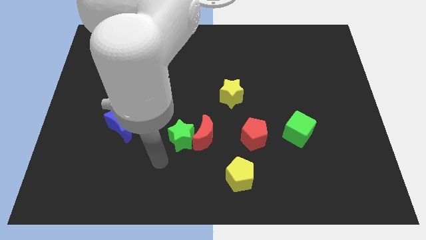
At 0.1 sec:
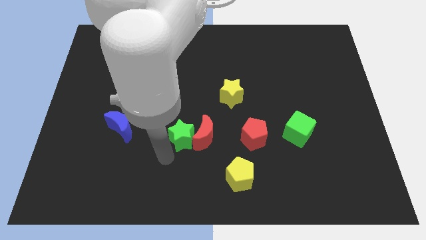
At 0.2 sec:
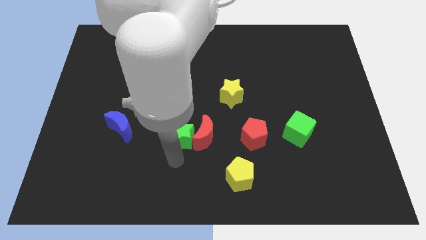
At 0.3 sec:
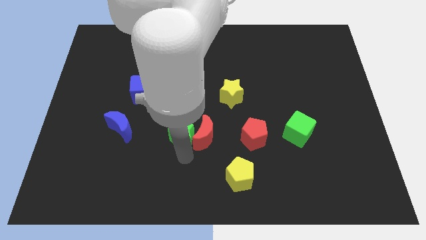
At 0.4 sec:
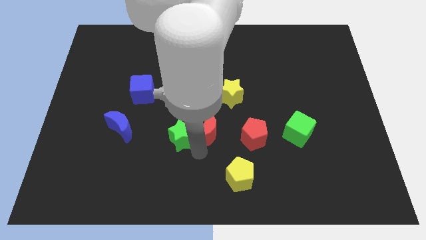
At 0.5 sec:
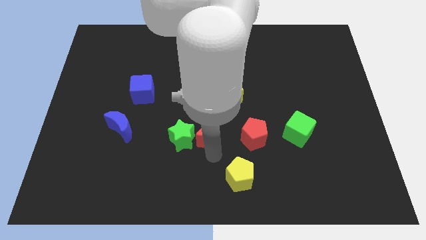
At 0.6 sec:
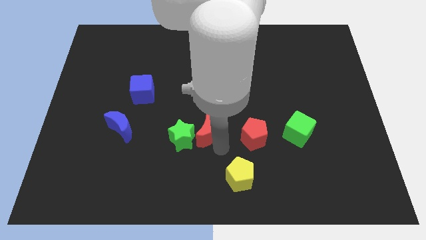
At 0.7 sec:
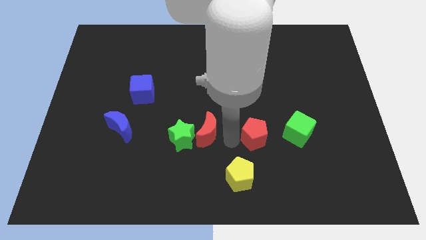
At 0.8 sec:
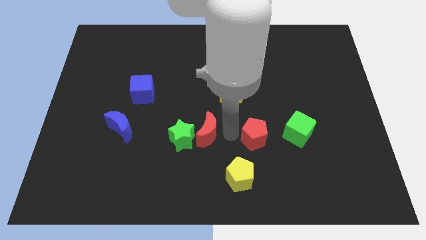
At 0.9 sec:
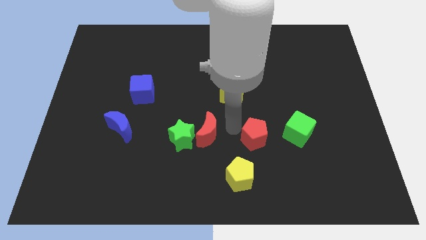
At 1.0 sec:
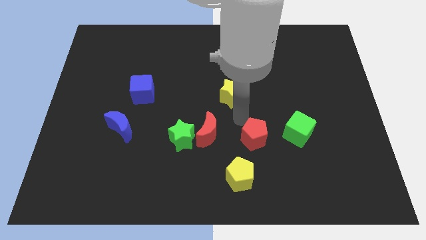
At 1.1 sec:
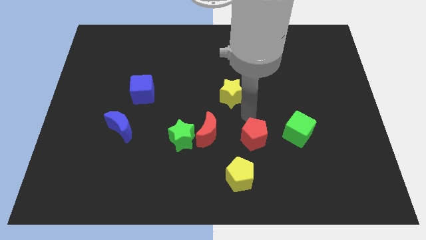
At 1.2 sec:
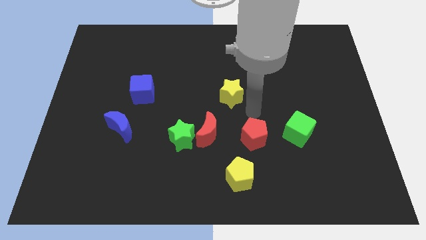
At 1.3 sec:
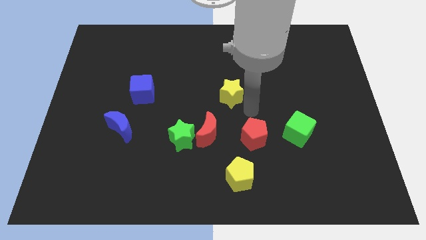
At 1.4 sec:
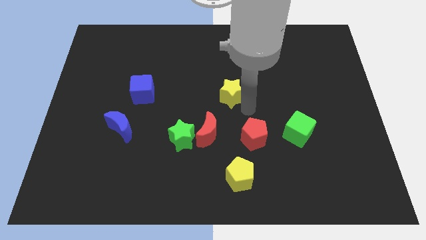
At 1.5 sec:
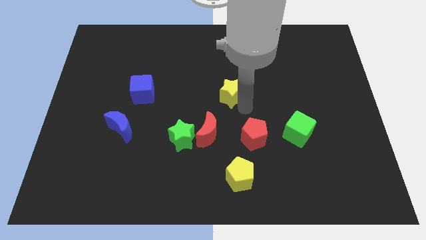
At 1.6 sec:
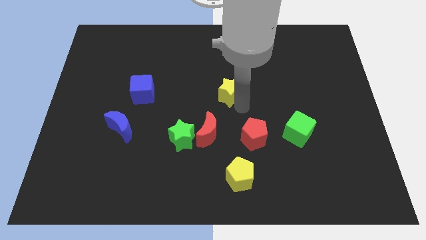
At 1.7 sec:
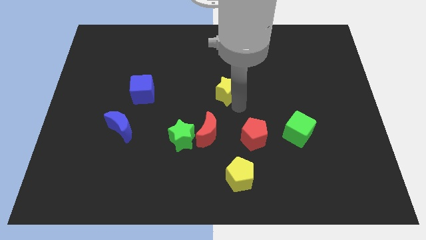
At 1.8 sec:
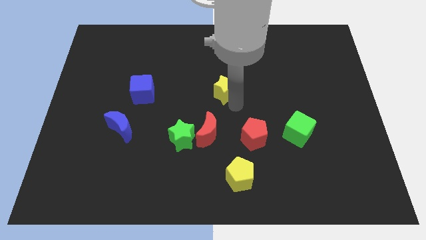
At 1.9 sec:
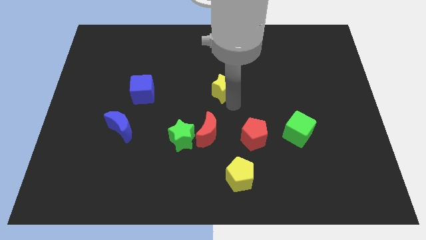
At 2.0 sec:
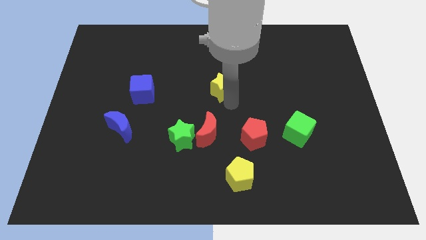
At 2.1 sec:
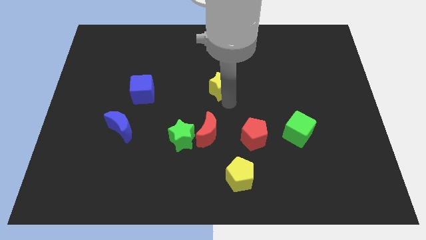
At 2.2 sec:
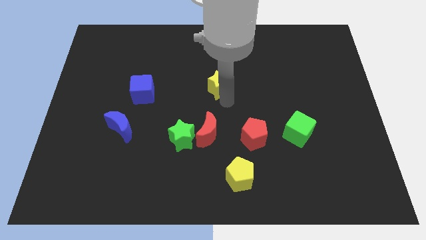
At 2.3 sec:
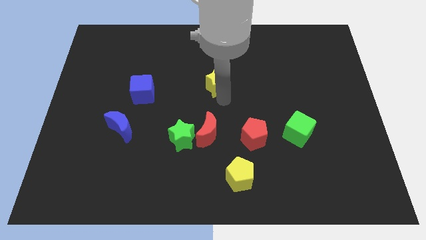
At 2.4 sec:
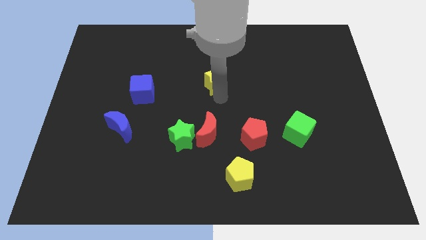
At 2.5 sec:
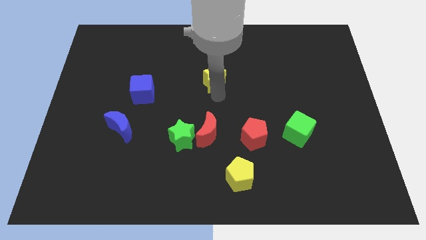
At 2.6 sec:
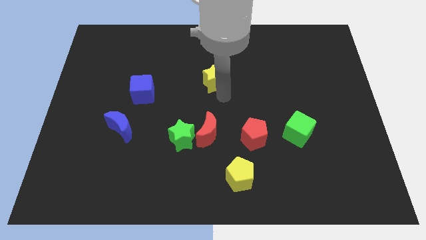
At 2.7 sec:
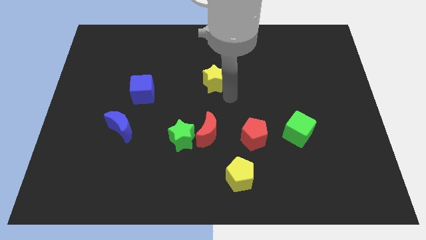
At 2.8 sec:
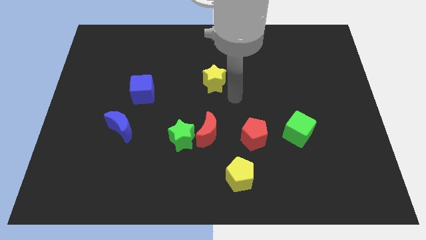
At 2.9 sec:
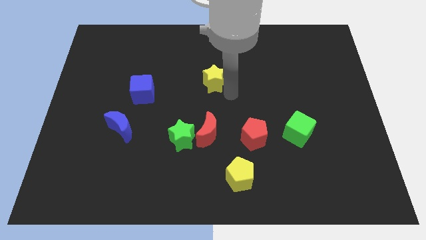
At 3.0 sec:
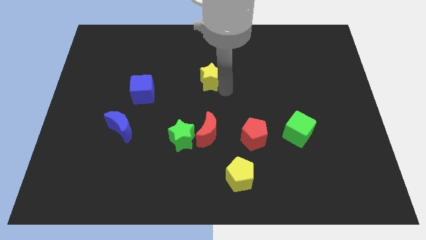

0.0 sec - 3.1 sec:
slightly push the yellow star up and left

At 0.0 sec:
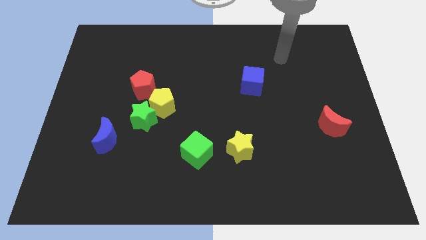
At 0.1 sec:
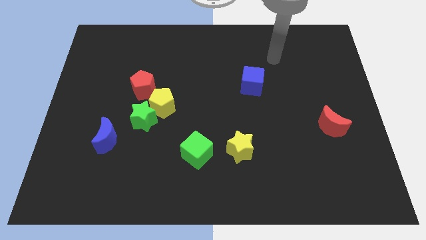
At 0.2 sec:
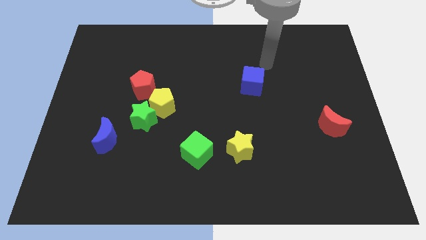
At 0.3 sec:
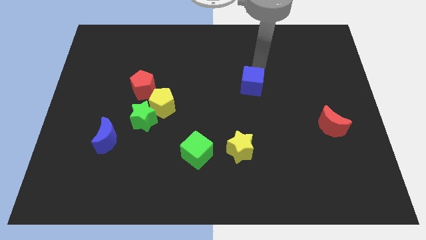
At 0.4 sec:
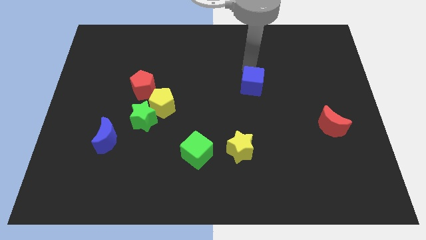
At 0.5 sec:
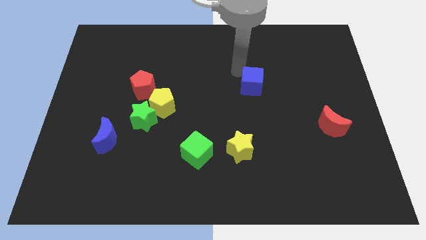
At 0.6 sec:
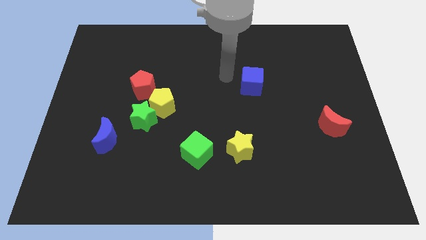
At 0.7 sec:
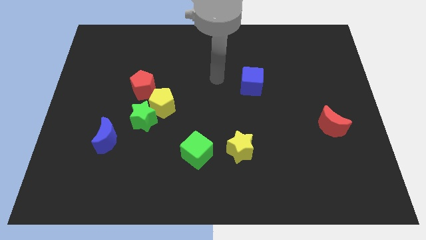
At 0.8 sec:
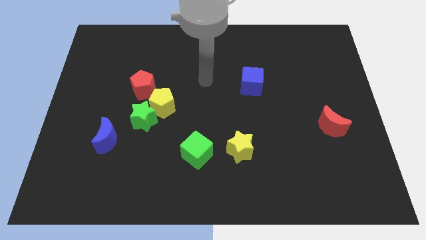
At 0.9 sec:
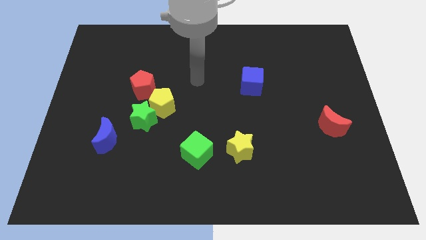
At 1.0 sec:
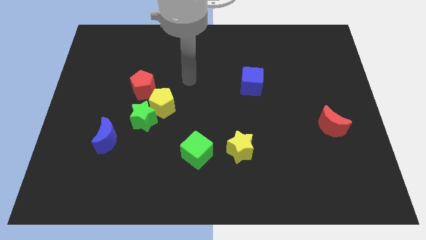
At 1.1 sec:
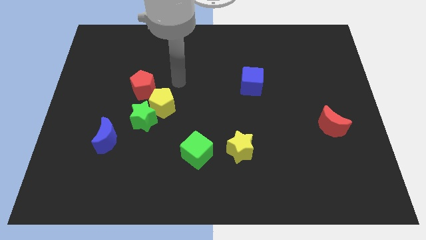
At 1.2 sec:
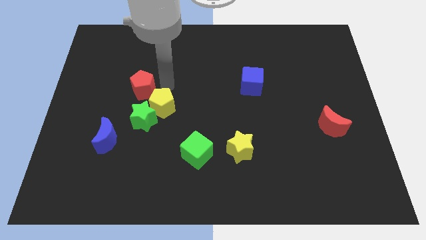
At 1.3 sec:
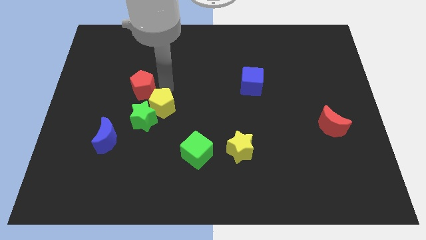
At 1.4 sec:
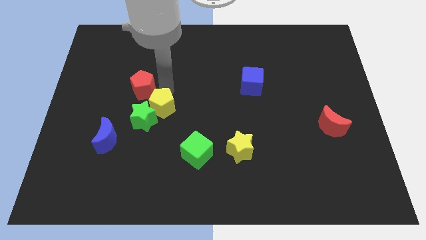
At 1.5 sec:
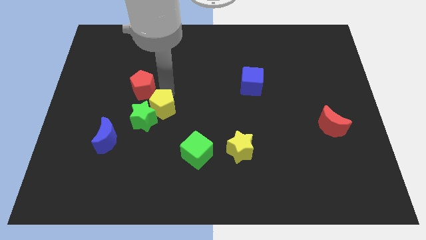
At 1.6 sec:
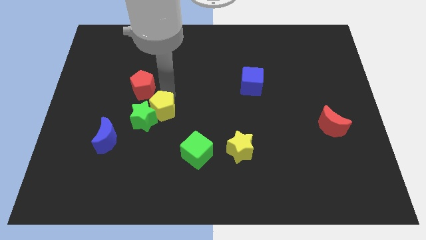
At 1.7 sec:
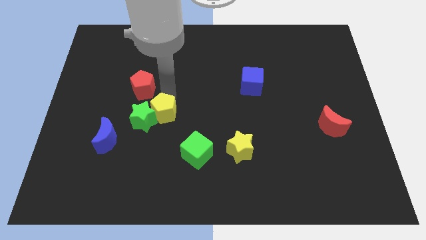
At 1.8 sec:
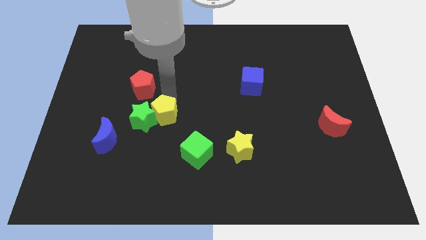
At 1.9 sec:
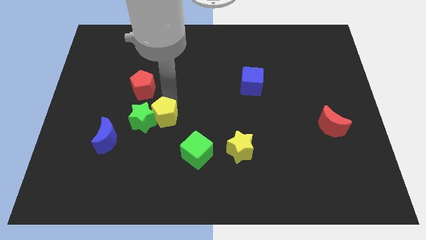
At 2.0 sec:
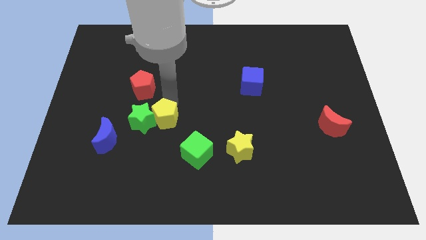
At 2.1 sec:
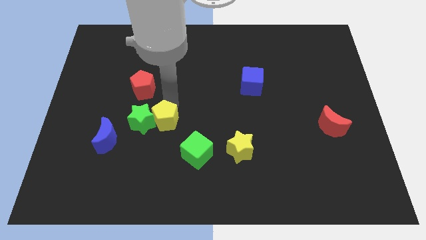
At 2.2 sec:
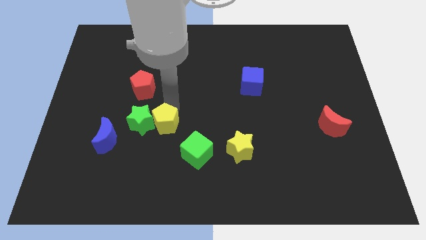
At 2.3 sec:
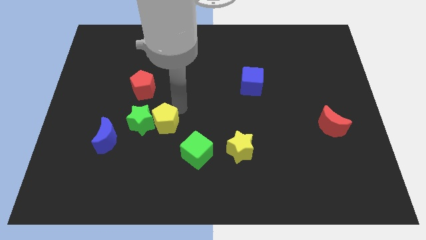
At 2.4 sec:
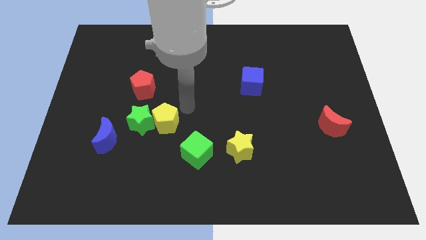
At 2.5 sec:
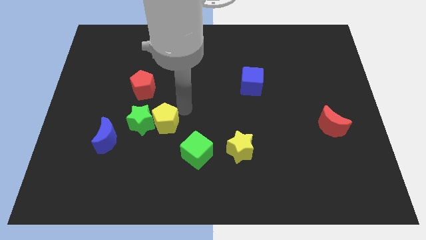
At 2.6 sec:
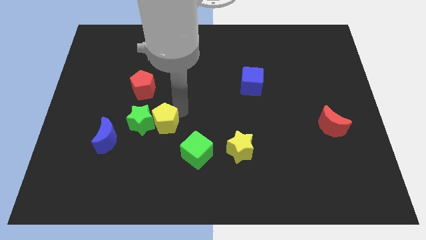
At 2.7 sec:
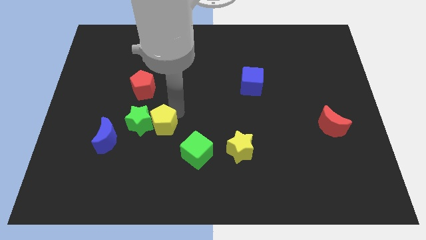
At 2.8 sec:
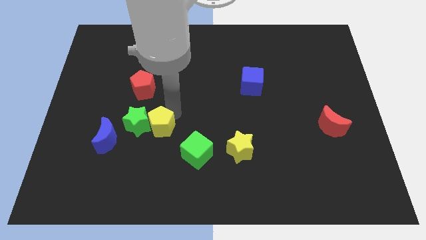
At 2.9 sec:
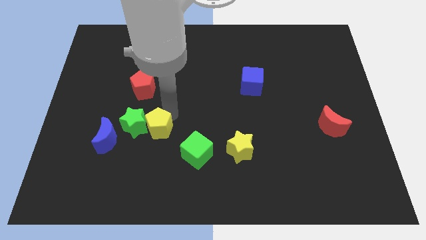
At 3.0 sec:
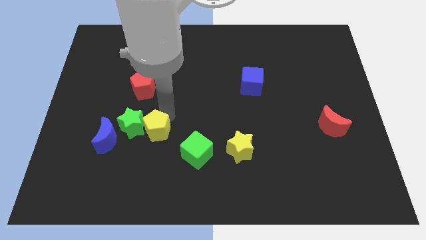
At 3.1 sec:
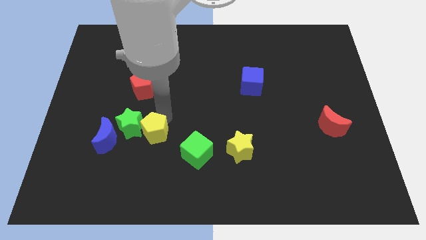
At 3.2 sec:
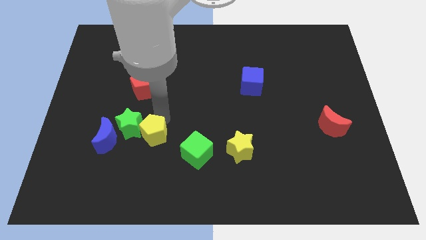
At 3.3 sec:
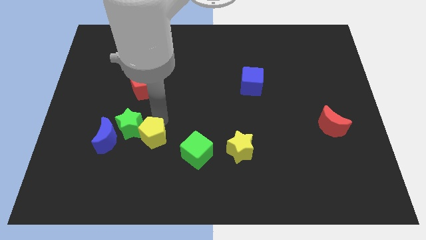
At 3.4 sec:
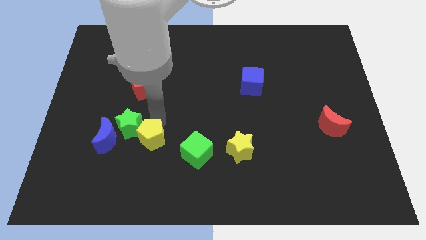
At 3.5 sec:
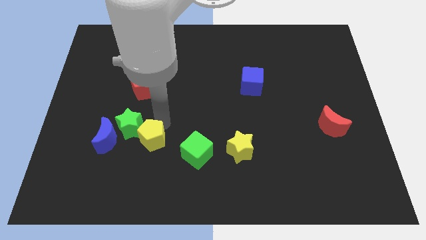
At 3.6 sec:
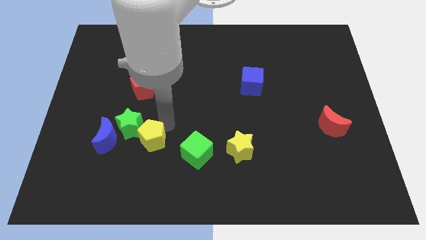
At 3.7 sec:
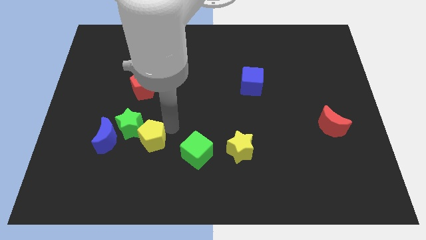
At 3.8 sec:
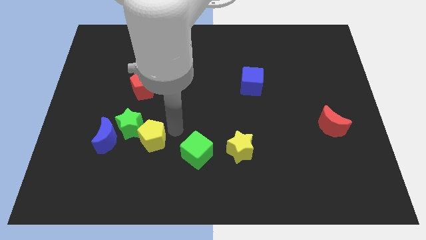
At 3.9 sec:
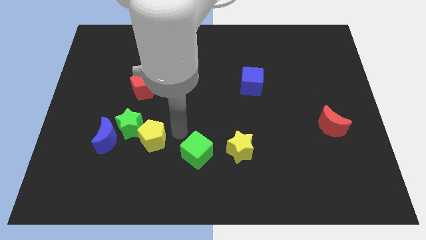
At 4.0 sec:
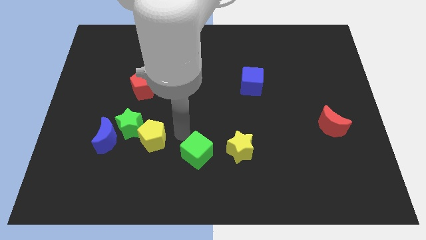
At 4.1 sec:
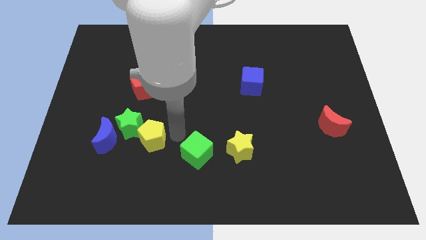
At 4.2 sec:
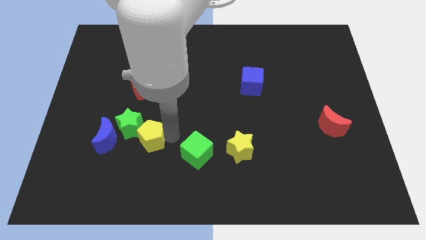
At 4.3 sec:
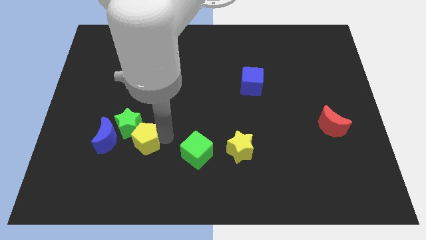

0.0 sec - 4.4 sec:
push the yellow pentagon diagonally down and to the left a little bit

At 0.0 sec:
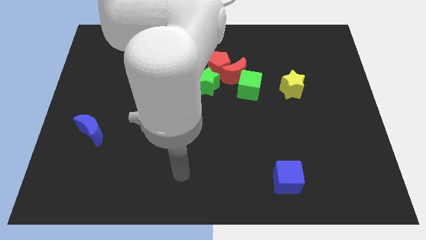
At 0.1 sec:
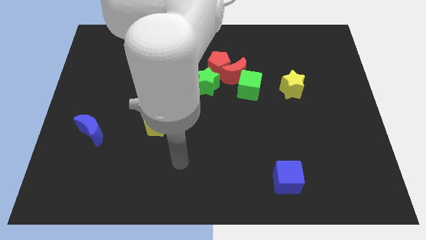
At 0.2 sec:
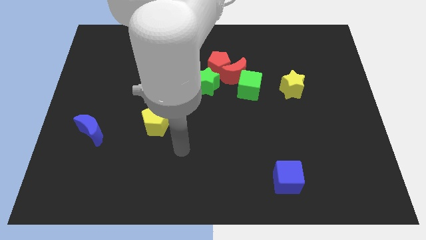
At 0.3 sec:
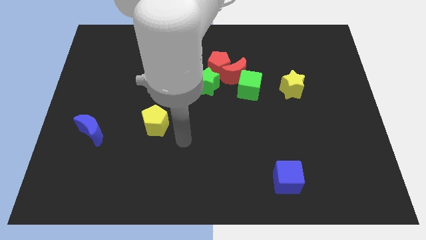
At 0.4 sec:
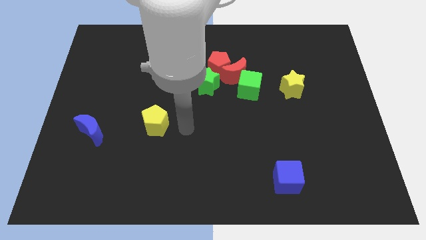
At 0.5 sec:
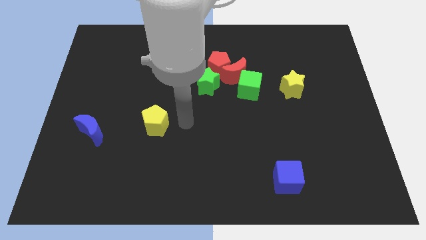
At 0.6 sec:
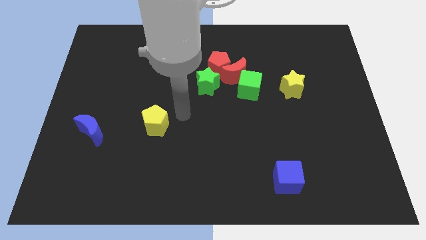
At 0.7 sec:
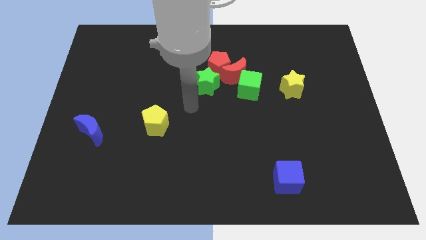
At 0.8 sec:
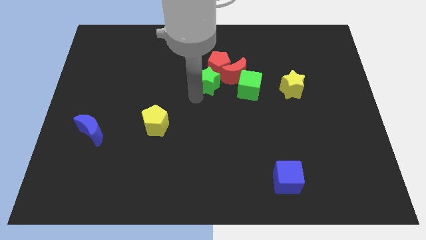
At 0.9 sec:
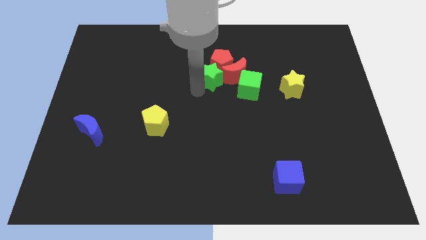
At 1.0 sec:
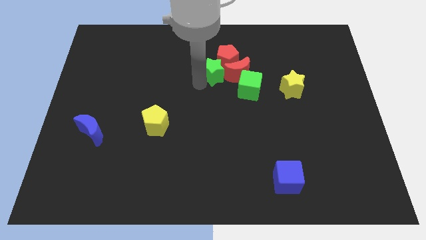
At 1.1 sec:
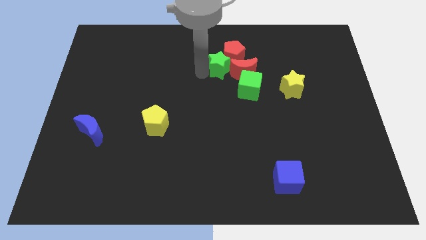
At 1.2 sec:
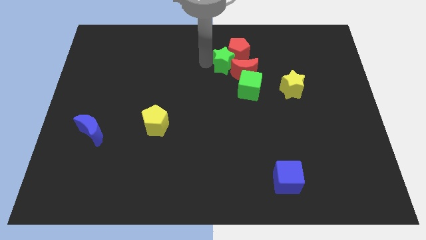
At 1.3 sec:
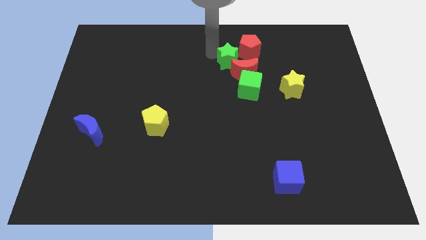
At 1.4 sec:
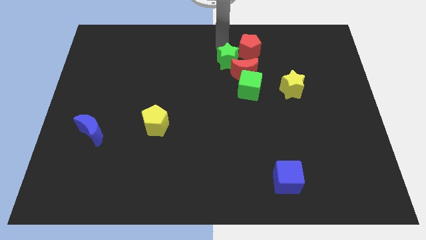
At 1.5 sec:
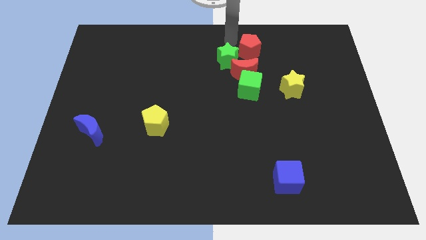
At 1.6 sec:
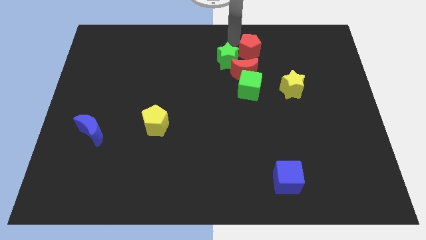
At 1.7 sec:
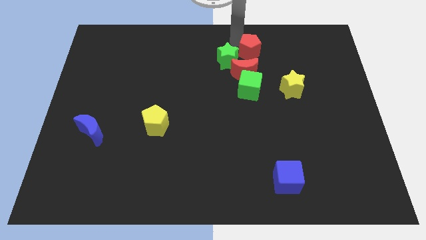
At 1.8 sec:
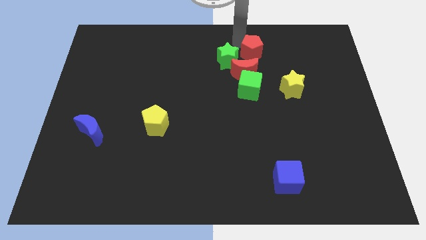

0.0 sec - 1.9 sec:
move the red pentagon slightly right
